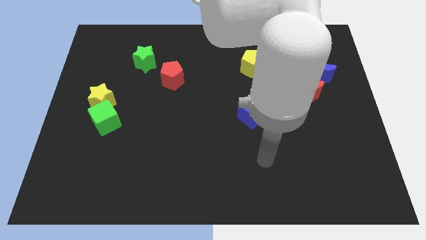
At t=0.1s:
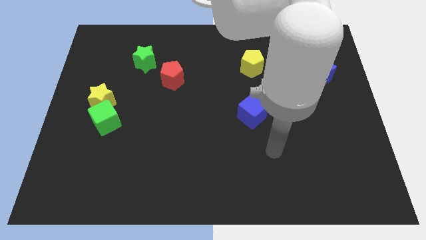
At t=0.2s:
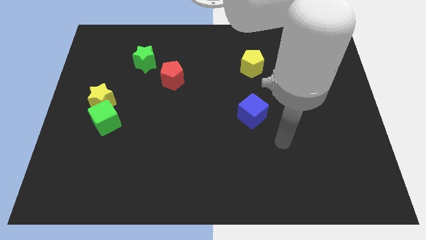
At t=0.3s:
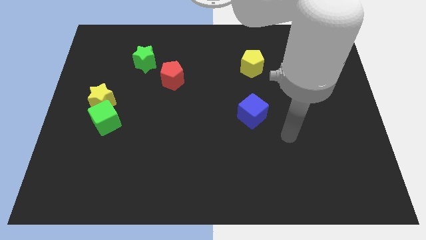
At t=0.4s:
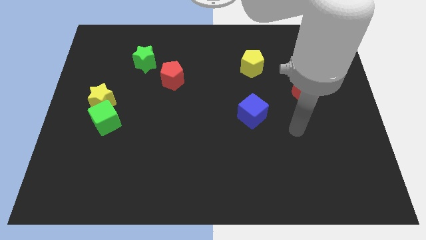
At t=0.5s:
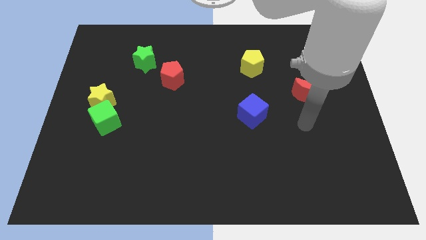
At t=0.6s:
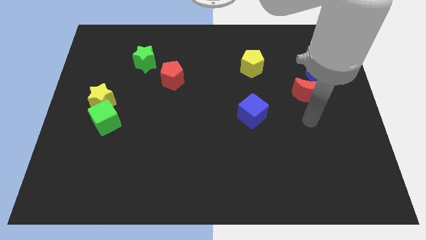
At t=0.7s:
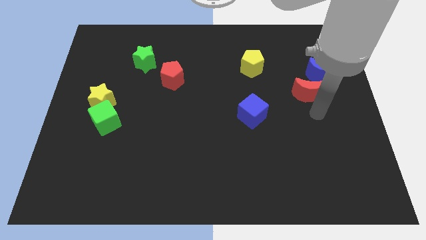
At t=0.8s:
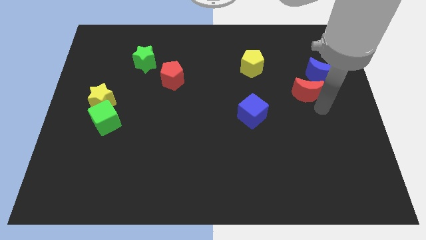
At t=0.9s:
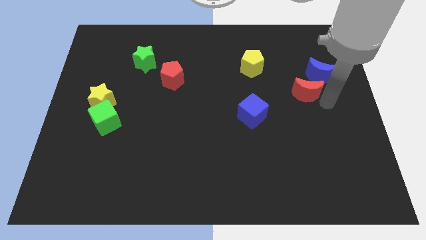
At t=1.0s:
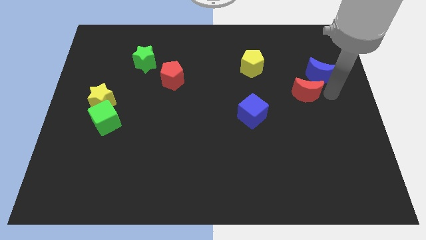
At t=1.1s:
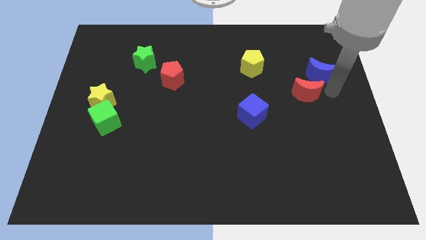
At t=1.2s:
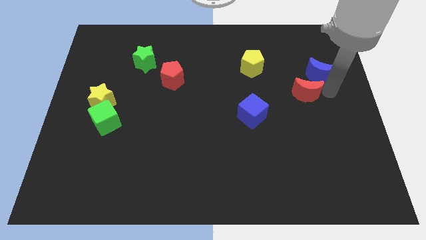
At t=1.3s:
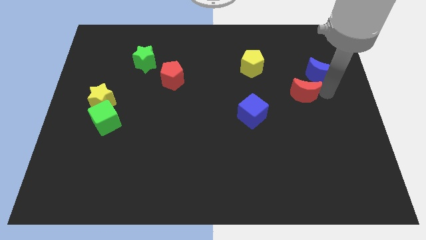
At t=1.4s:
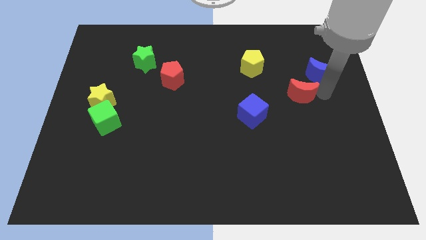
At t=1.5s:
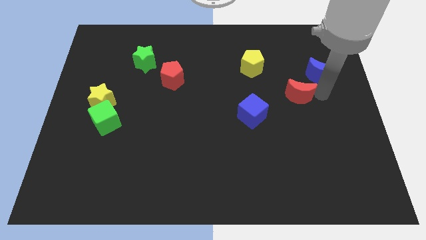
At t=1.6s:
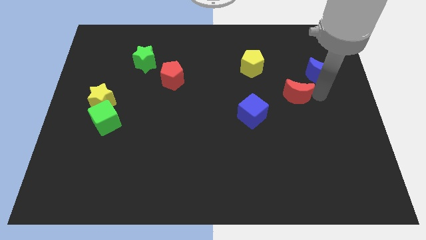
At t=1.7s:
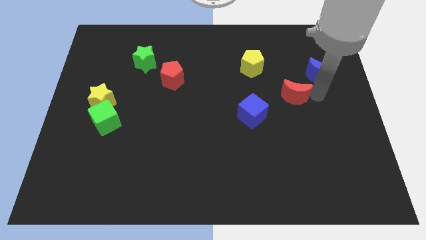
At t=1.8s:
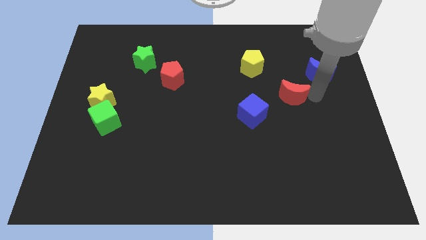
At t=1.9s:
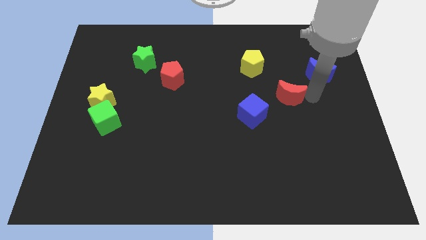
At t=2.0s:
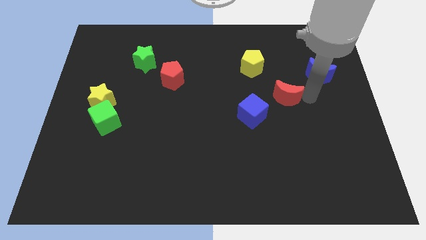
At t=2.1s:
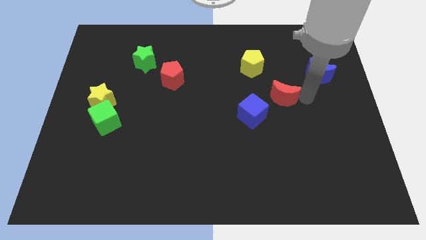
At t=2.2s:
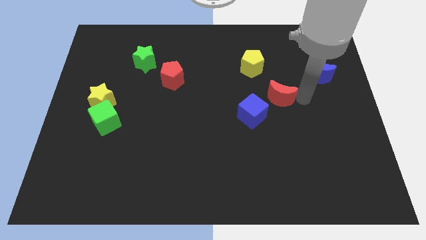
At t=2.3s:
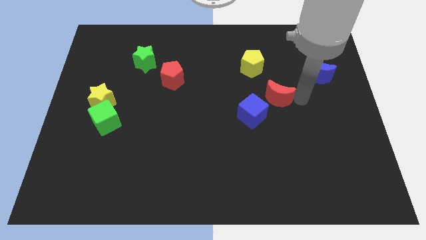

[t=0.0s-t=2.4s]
slide the red moon somewhat left

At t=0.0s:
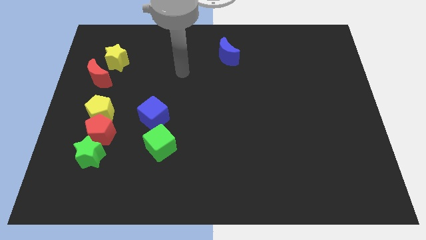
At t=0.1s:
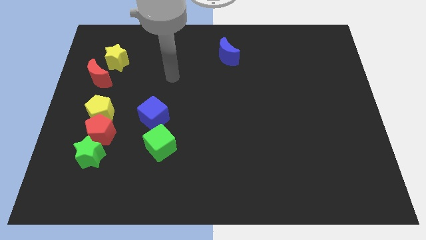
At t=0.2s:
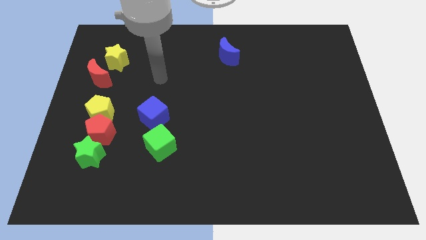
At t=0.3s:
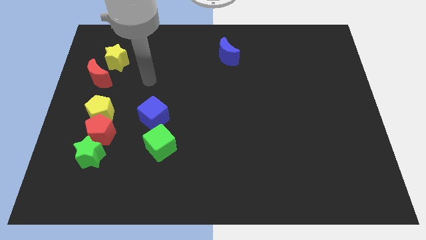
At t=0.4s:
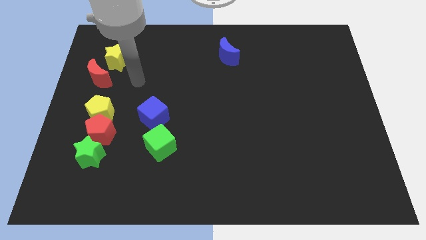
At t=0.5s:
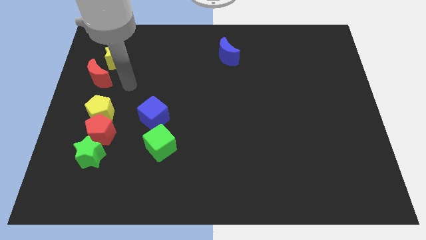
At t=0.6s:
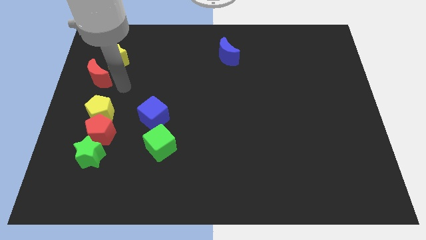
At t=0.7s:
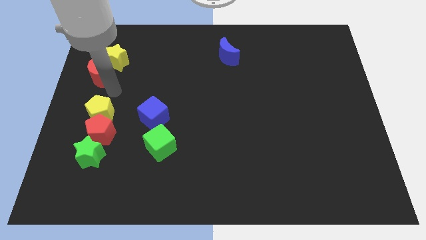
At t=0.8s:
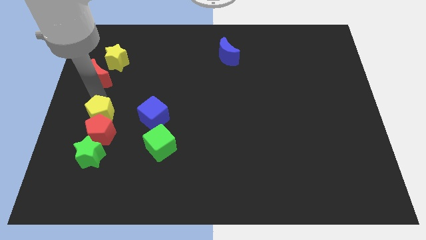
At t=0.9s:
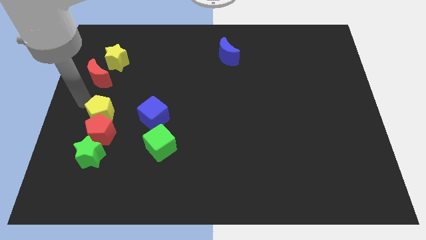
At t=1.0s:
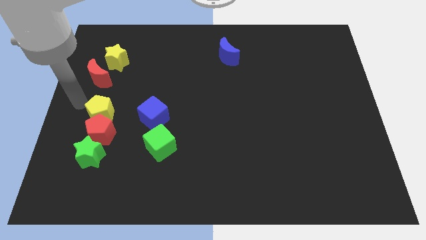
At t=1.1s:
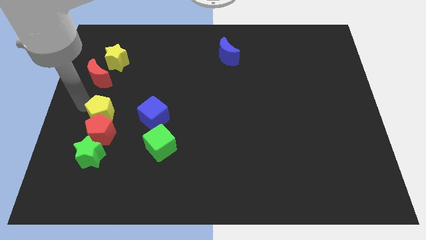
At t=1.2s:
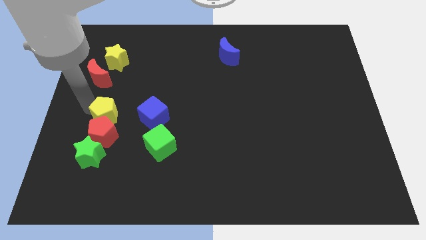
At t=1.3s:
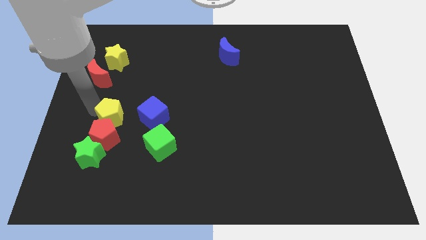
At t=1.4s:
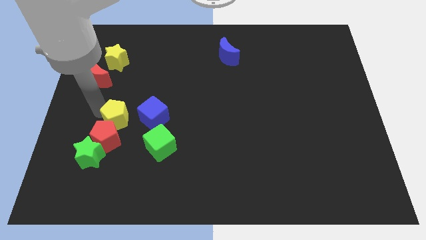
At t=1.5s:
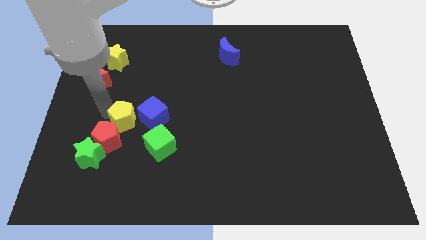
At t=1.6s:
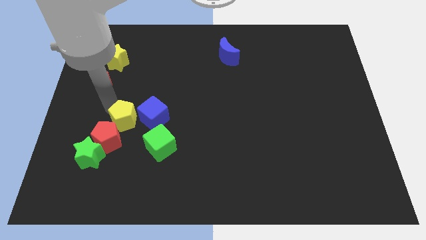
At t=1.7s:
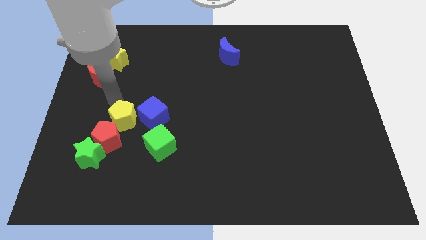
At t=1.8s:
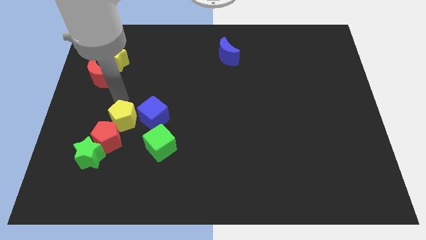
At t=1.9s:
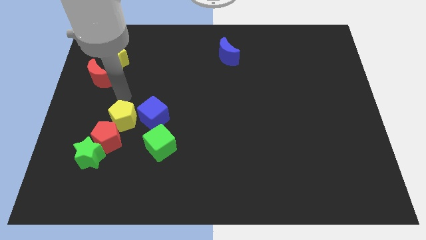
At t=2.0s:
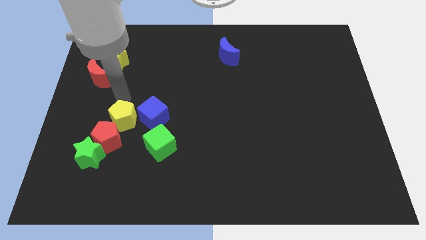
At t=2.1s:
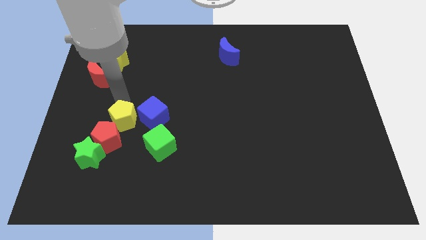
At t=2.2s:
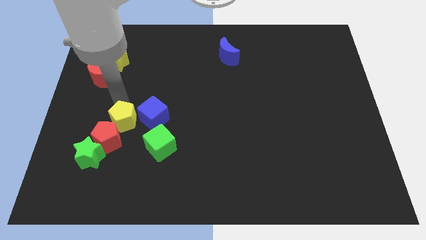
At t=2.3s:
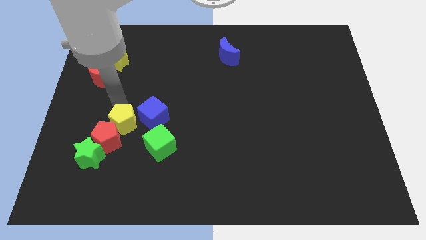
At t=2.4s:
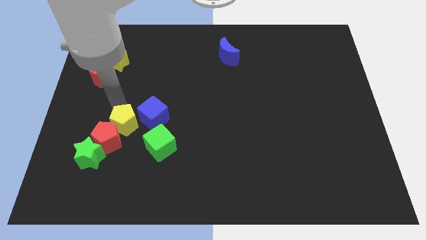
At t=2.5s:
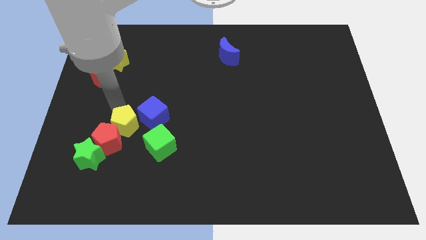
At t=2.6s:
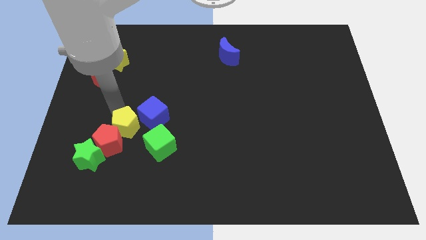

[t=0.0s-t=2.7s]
push the yellow pentagon down and to the right diagonally a bit

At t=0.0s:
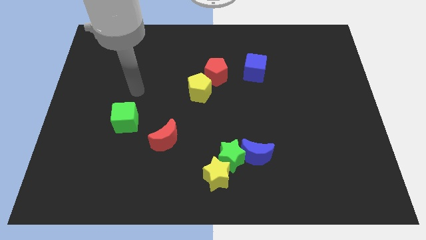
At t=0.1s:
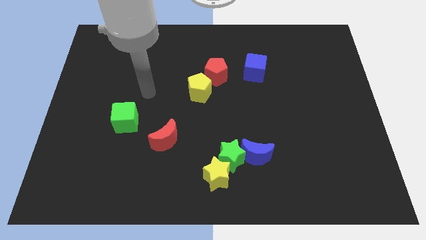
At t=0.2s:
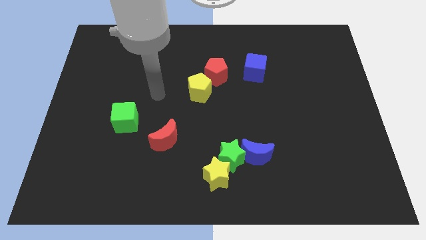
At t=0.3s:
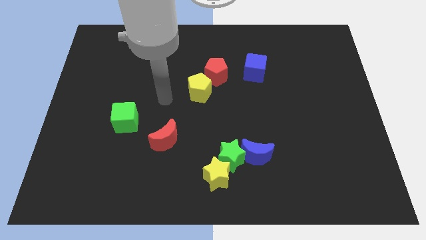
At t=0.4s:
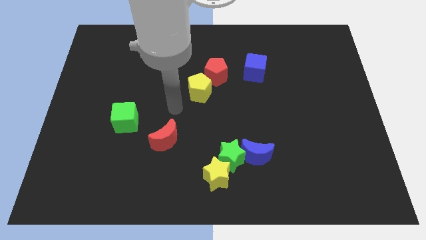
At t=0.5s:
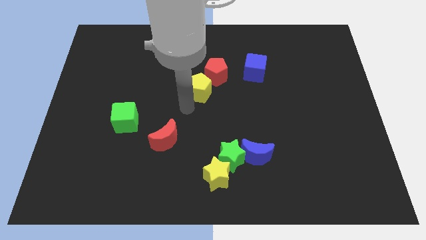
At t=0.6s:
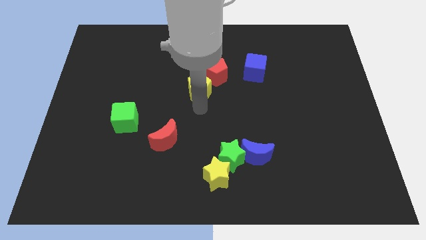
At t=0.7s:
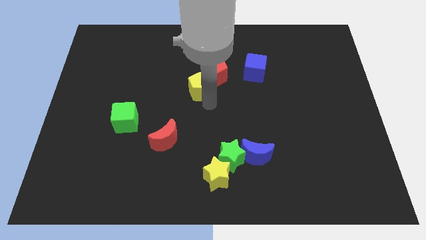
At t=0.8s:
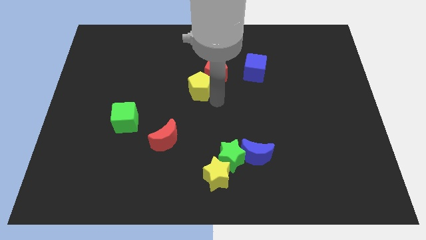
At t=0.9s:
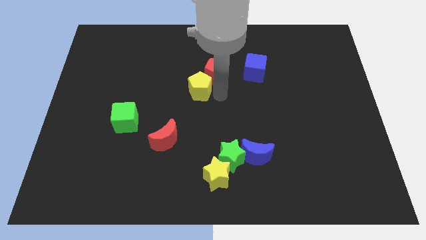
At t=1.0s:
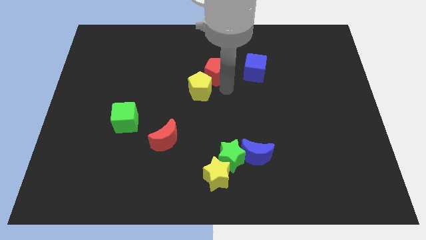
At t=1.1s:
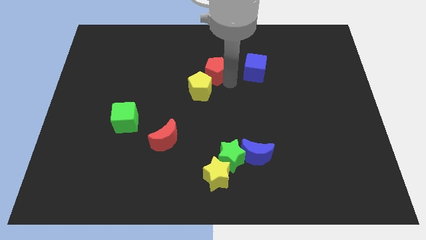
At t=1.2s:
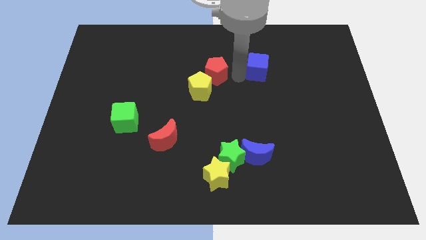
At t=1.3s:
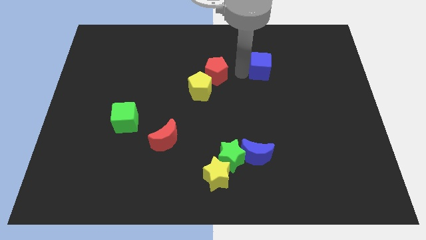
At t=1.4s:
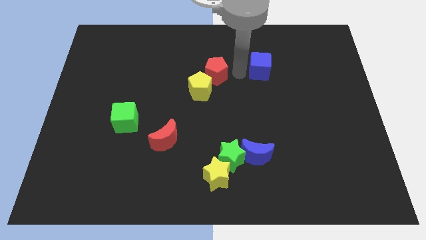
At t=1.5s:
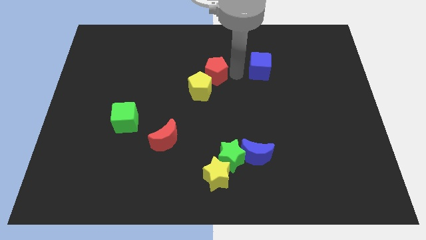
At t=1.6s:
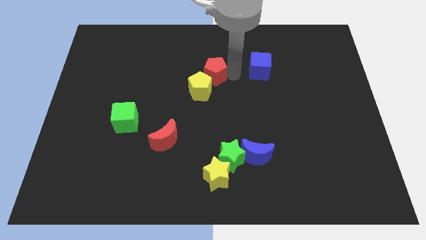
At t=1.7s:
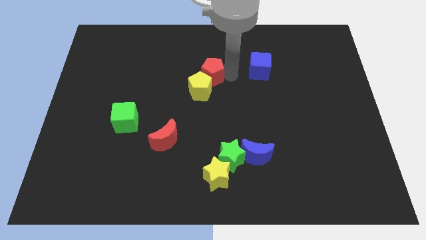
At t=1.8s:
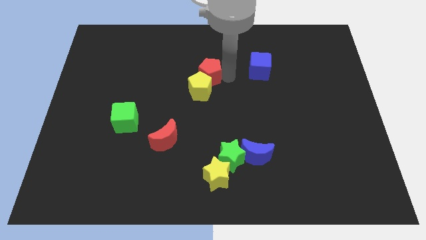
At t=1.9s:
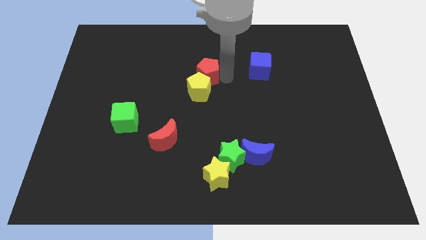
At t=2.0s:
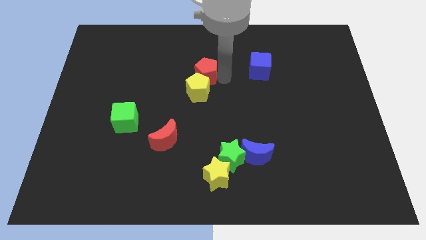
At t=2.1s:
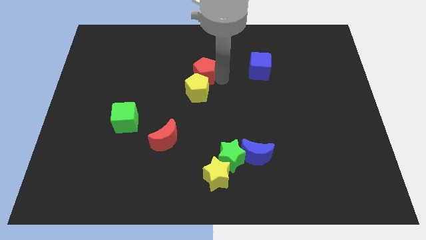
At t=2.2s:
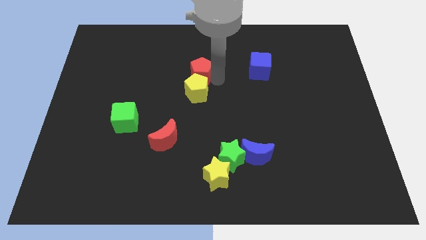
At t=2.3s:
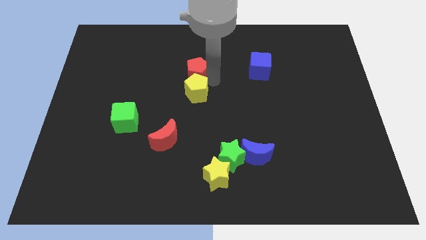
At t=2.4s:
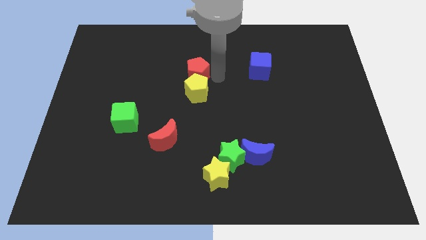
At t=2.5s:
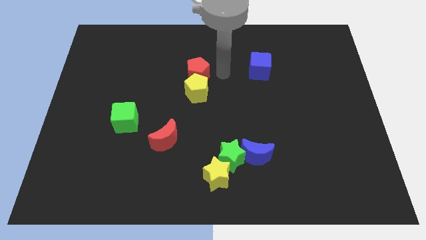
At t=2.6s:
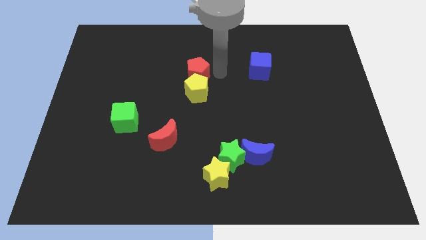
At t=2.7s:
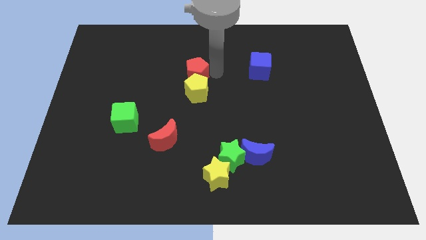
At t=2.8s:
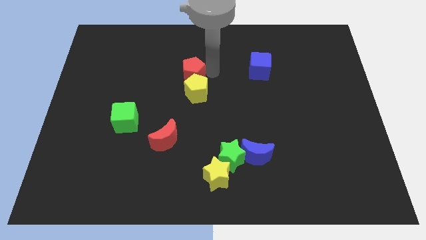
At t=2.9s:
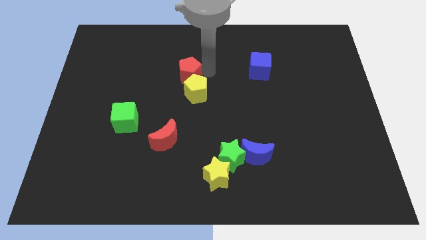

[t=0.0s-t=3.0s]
slide the red pentagon to the left a little bit
